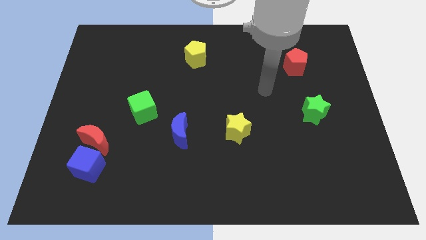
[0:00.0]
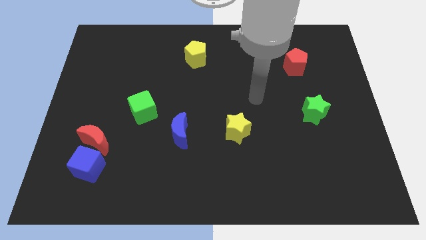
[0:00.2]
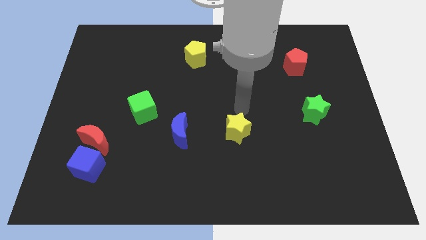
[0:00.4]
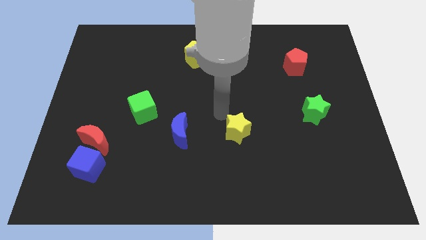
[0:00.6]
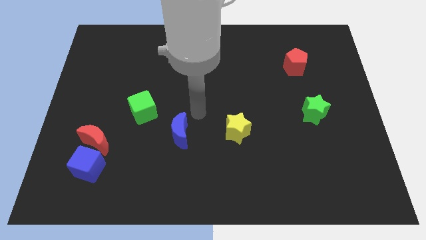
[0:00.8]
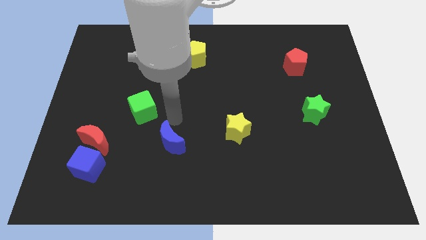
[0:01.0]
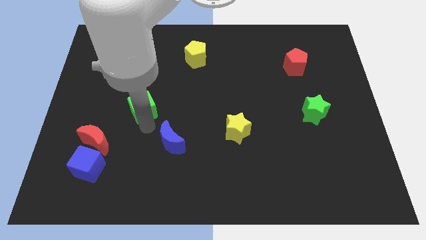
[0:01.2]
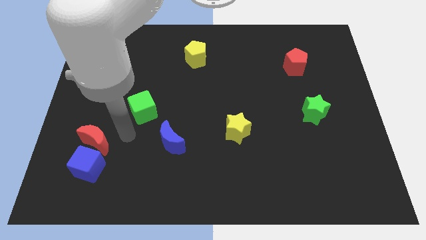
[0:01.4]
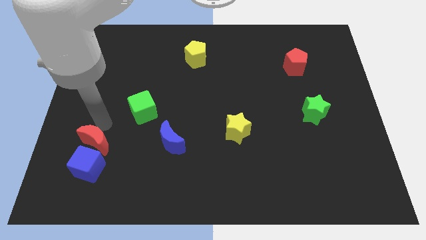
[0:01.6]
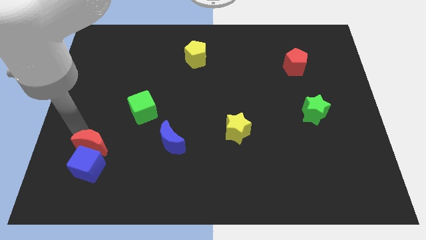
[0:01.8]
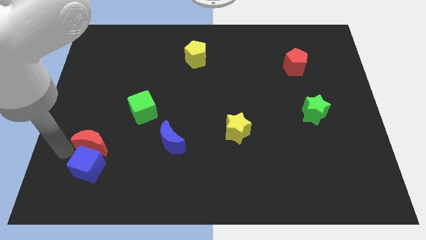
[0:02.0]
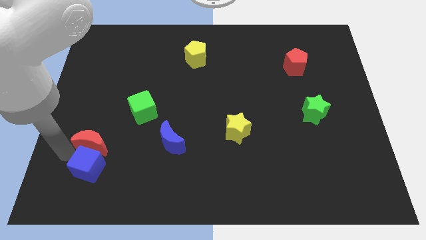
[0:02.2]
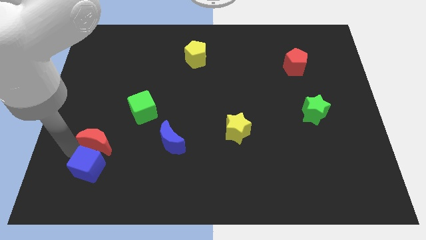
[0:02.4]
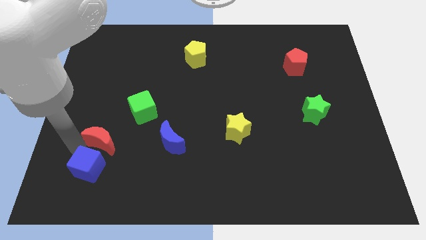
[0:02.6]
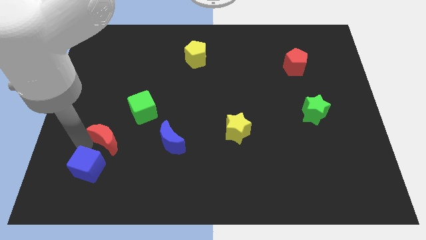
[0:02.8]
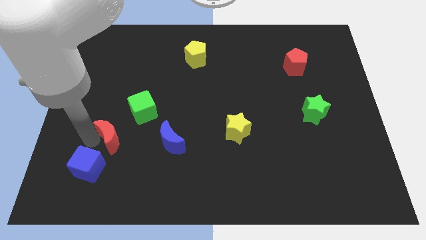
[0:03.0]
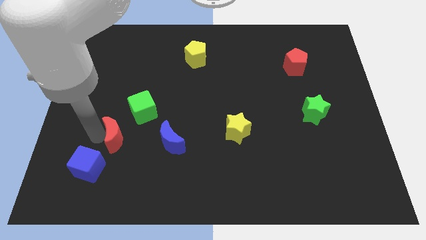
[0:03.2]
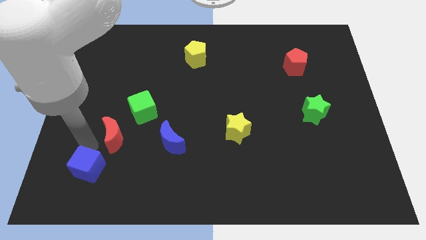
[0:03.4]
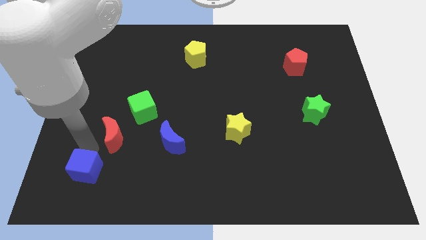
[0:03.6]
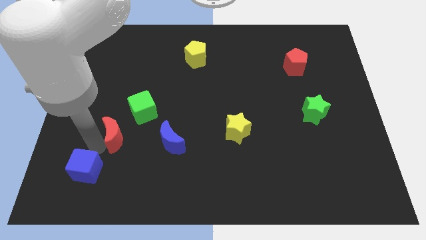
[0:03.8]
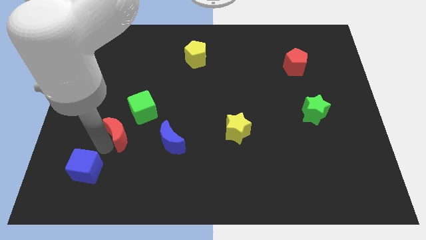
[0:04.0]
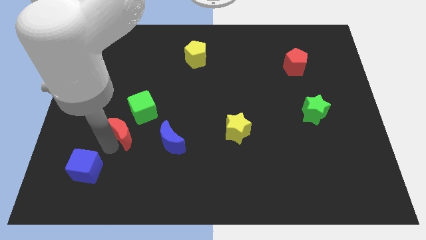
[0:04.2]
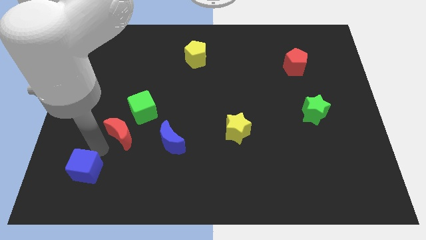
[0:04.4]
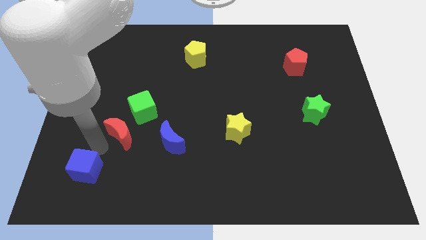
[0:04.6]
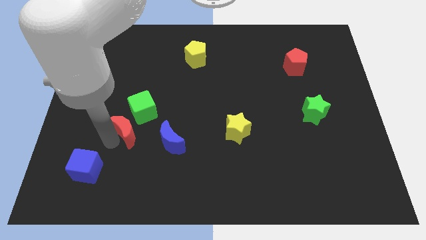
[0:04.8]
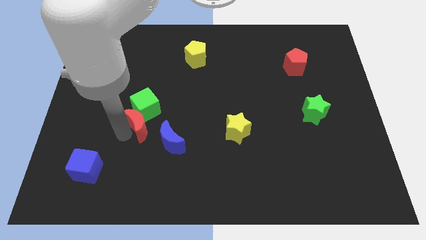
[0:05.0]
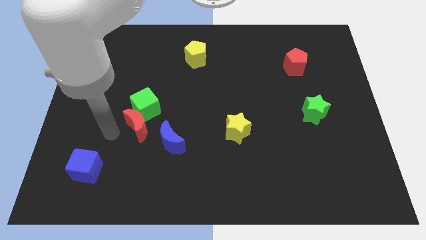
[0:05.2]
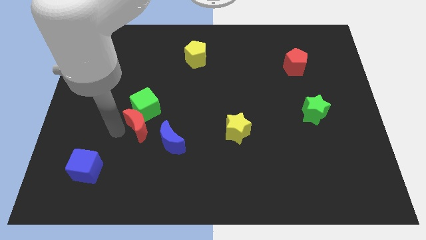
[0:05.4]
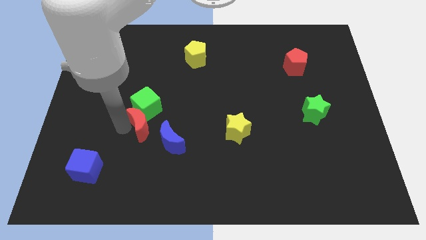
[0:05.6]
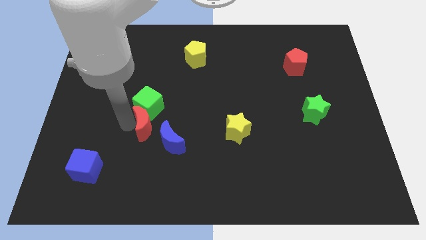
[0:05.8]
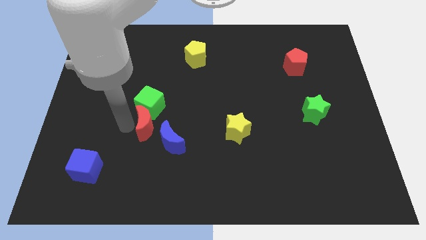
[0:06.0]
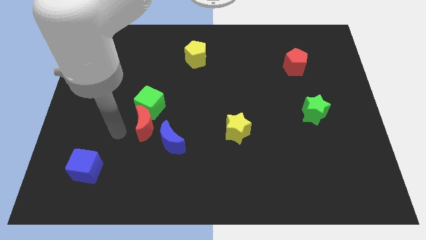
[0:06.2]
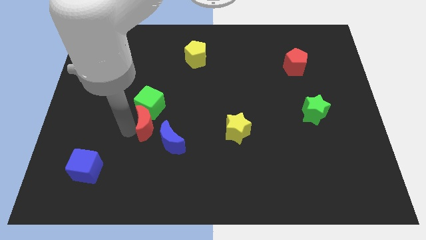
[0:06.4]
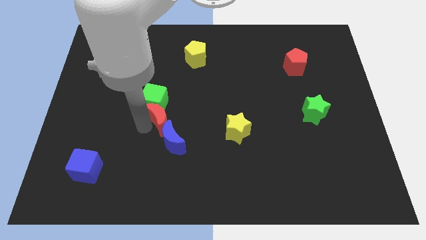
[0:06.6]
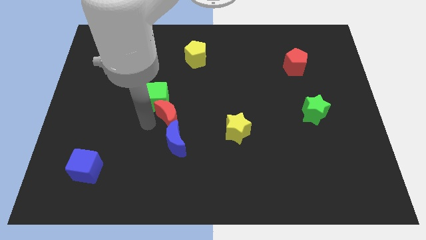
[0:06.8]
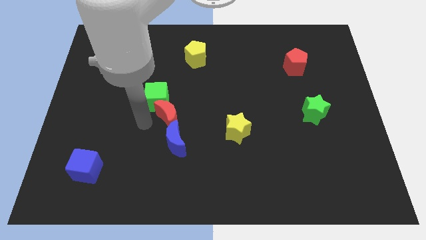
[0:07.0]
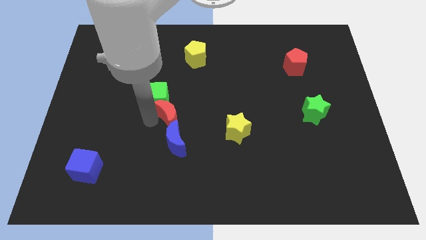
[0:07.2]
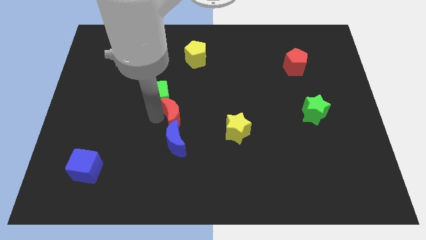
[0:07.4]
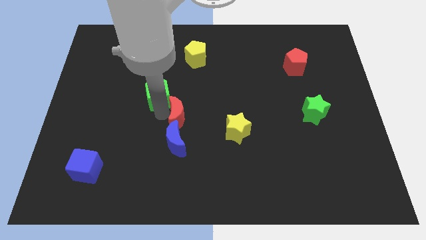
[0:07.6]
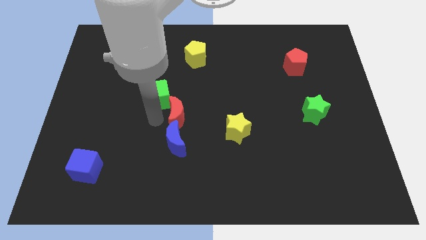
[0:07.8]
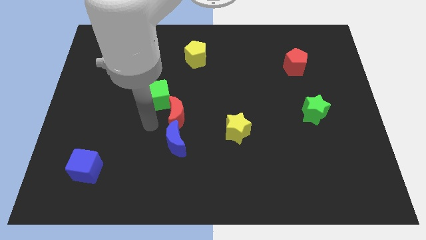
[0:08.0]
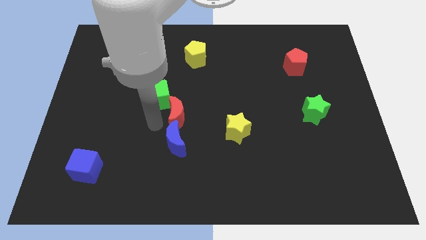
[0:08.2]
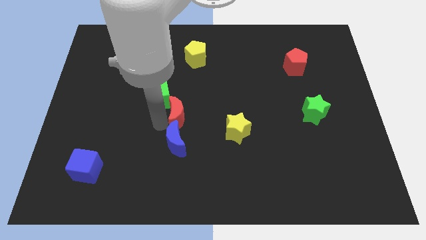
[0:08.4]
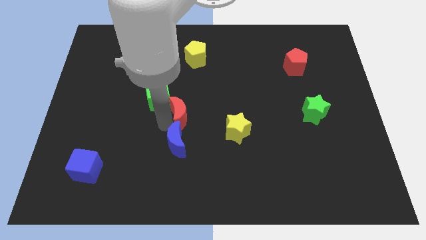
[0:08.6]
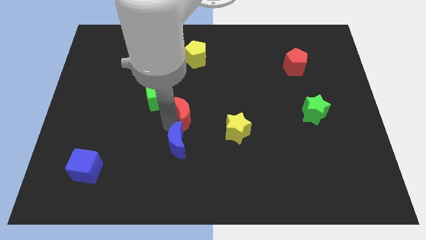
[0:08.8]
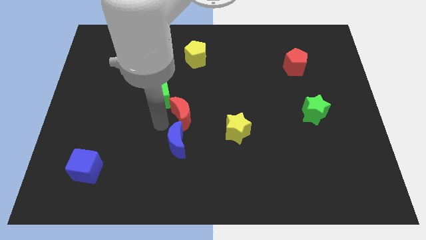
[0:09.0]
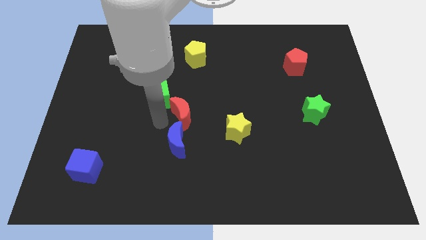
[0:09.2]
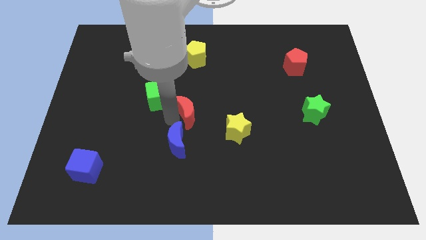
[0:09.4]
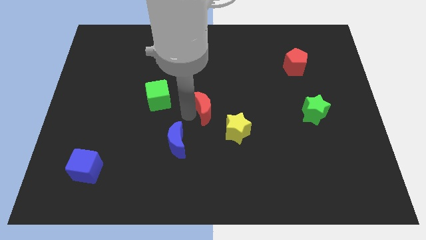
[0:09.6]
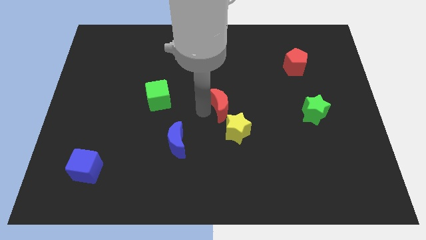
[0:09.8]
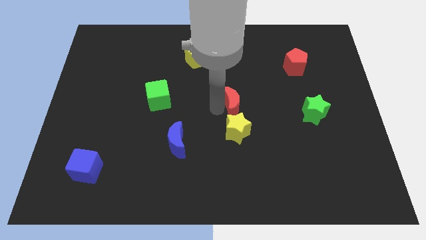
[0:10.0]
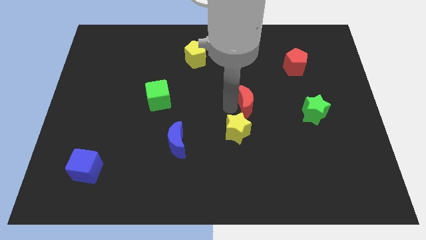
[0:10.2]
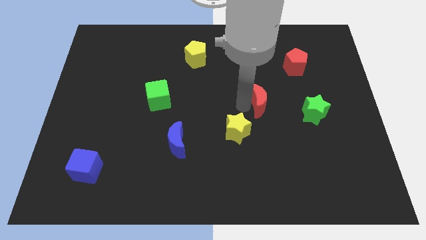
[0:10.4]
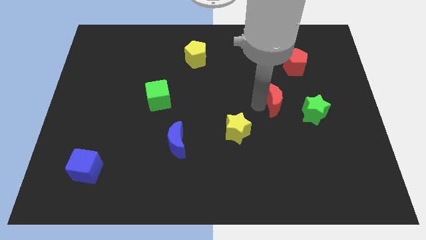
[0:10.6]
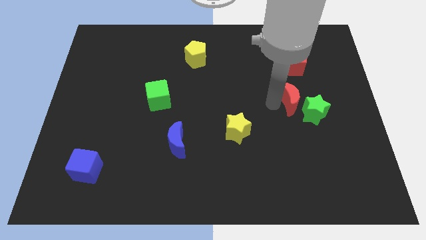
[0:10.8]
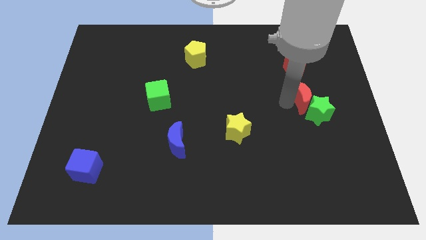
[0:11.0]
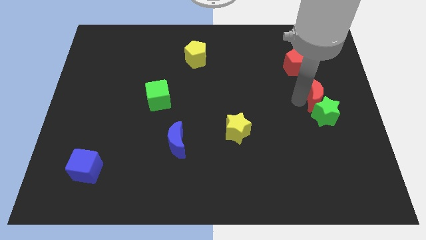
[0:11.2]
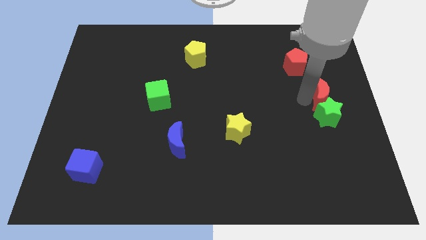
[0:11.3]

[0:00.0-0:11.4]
push the red moon to the center right

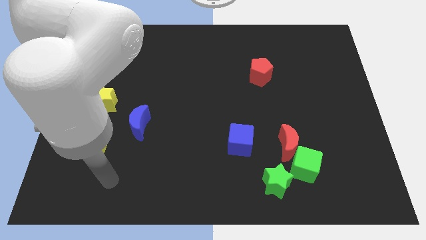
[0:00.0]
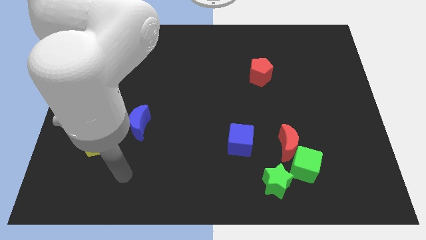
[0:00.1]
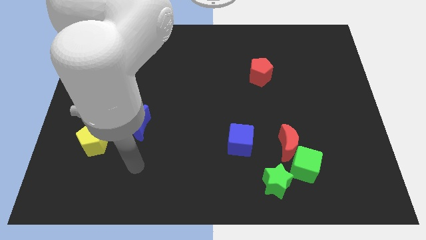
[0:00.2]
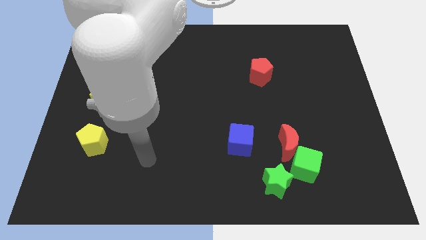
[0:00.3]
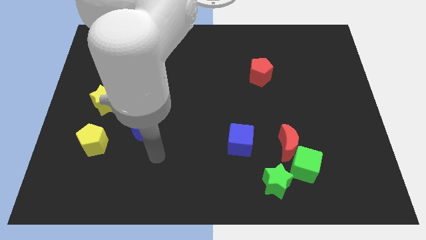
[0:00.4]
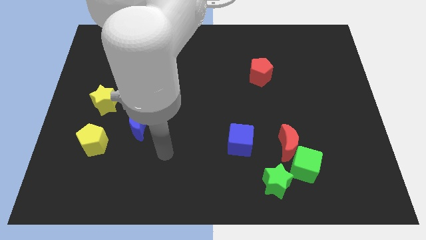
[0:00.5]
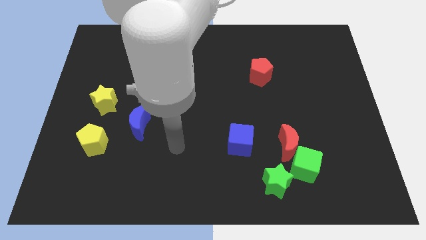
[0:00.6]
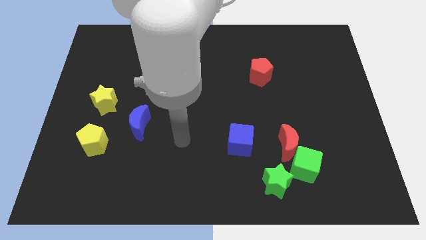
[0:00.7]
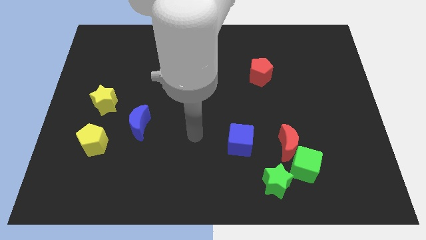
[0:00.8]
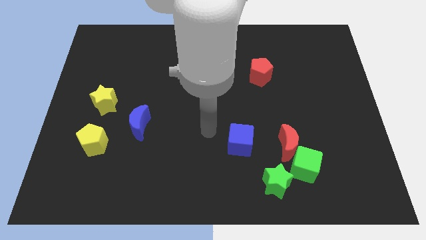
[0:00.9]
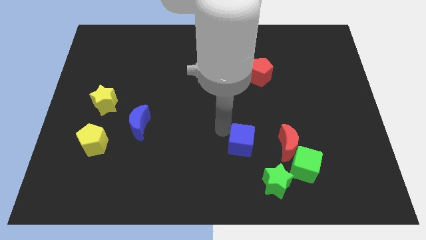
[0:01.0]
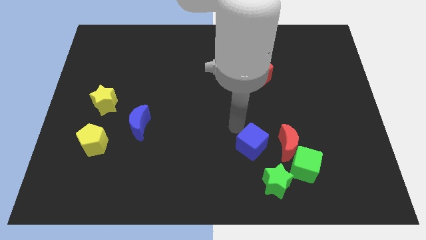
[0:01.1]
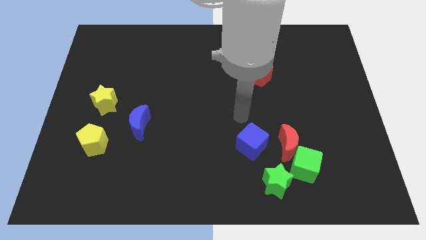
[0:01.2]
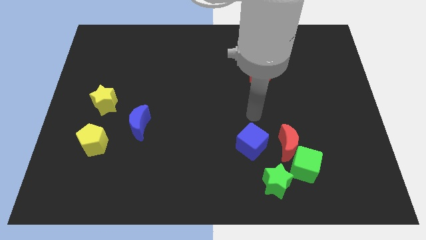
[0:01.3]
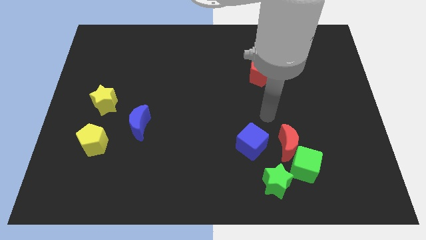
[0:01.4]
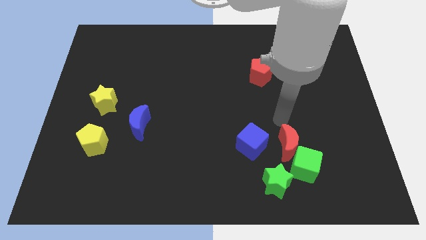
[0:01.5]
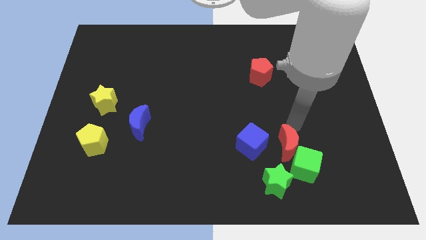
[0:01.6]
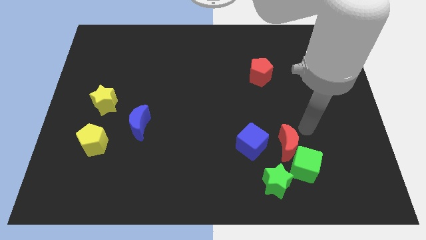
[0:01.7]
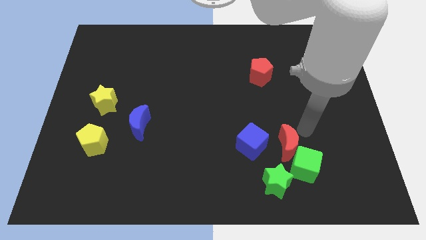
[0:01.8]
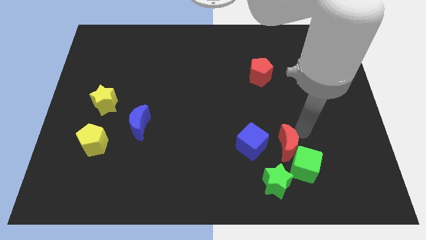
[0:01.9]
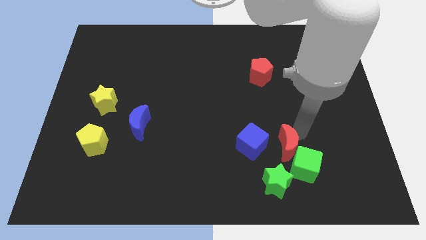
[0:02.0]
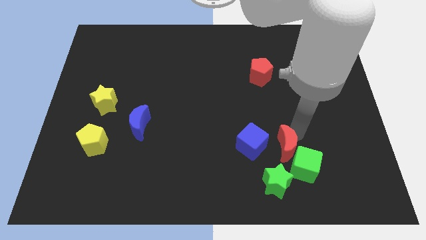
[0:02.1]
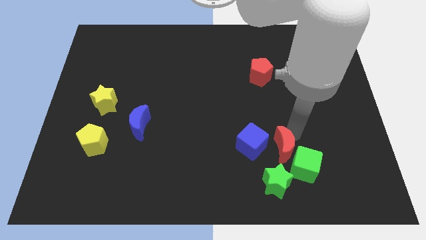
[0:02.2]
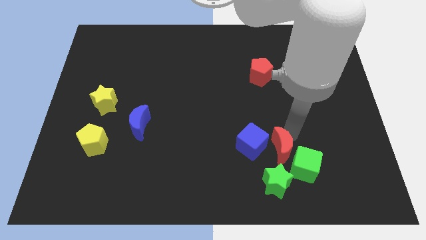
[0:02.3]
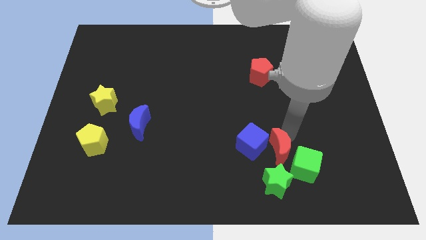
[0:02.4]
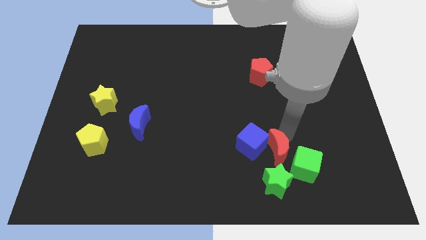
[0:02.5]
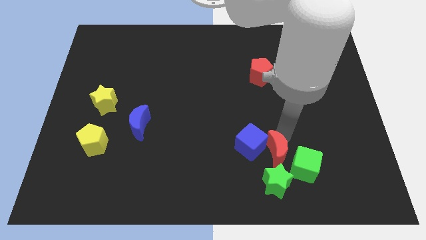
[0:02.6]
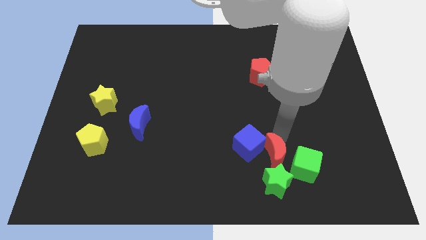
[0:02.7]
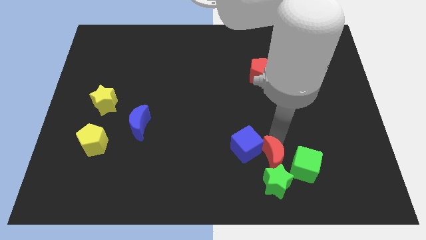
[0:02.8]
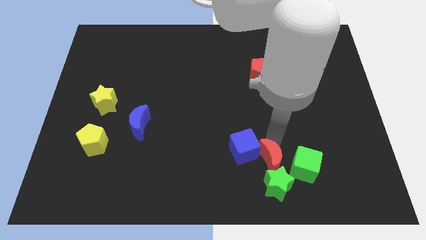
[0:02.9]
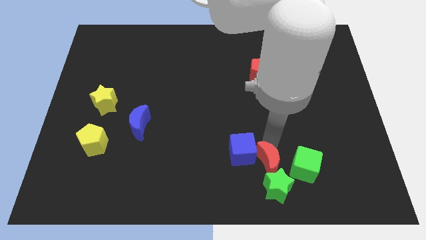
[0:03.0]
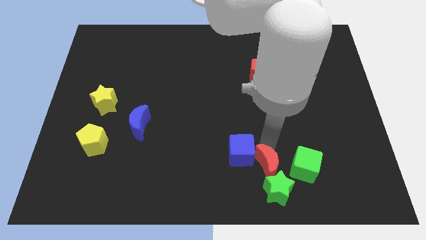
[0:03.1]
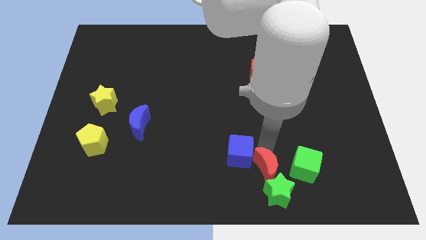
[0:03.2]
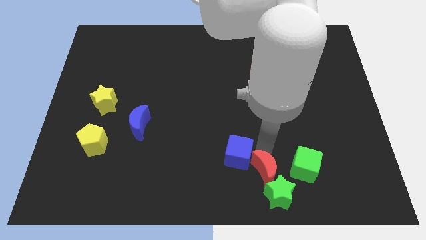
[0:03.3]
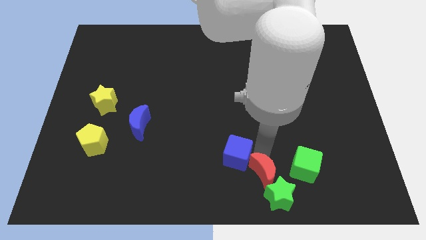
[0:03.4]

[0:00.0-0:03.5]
push the red moon to the bottom side
